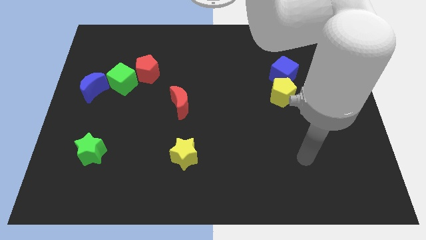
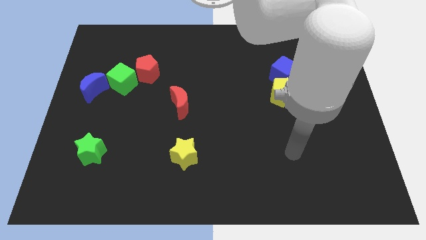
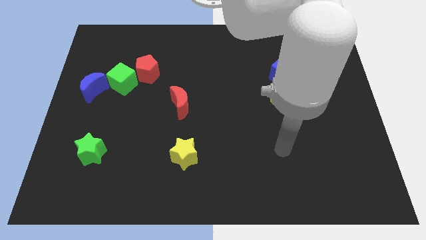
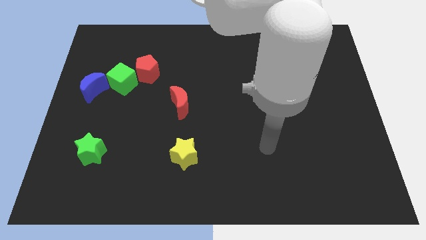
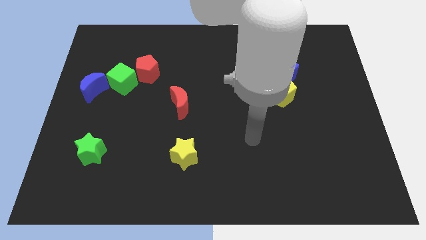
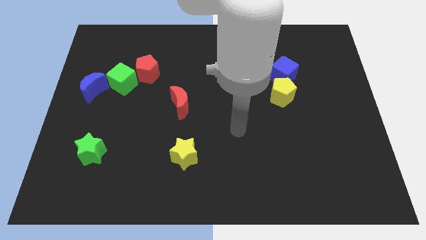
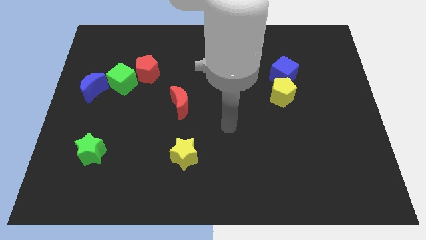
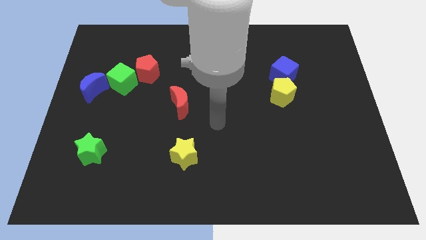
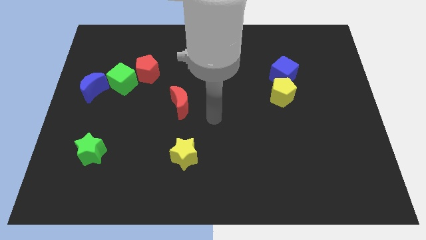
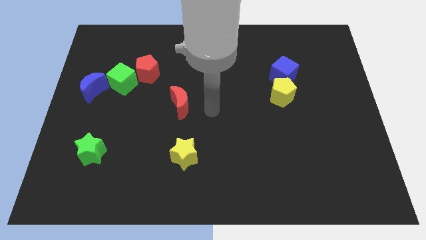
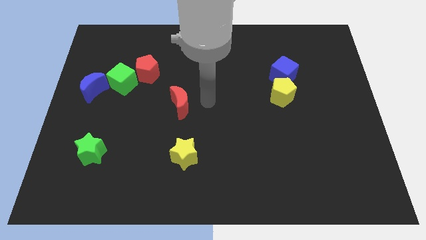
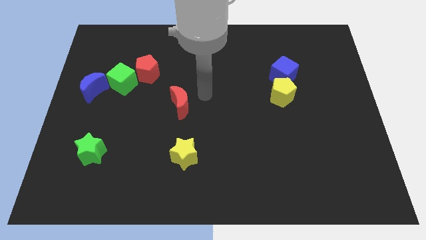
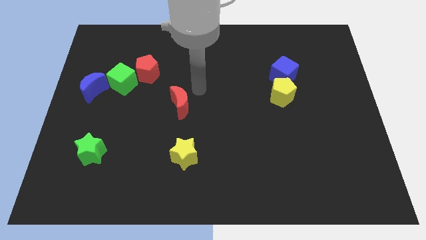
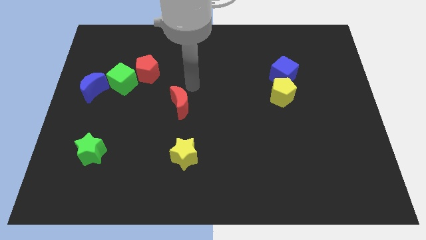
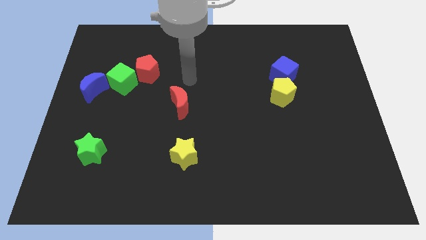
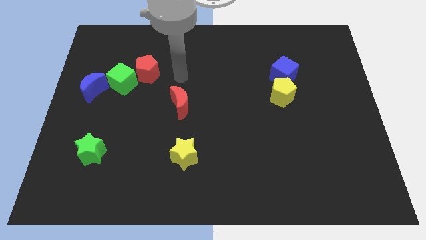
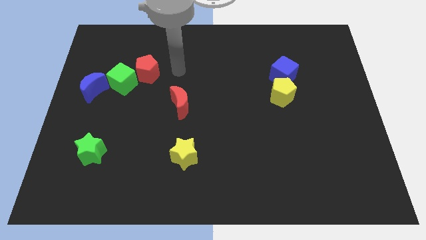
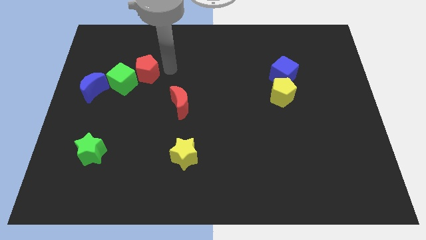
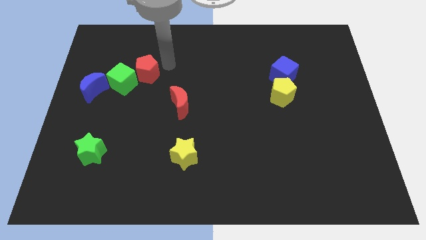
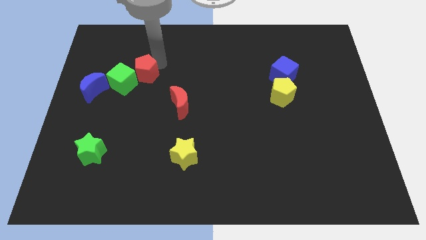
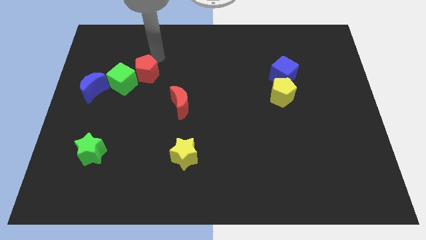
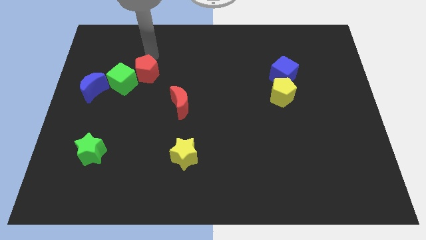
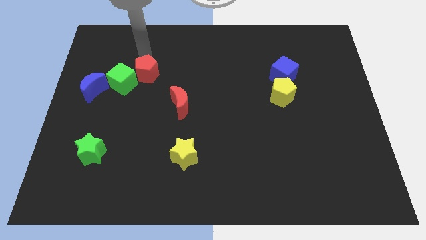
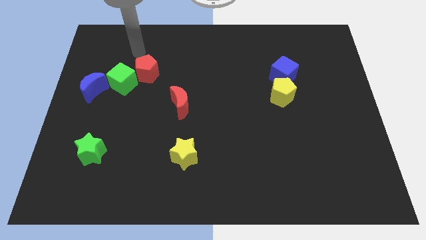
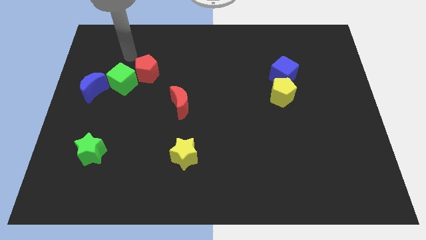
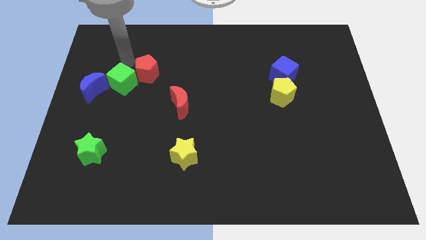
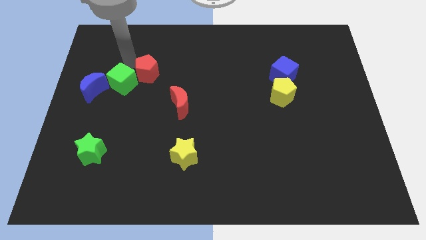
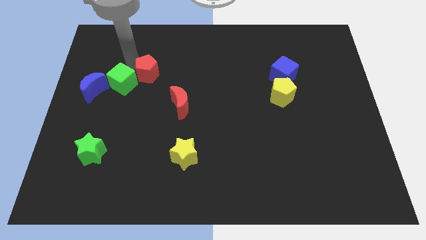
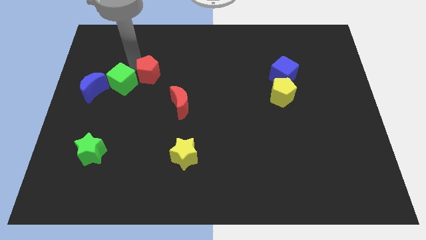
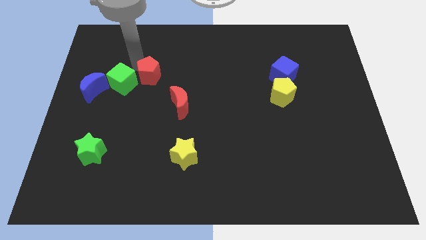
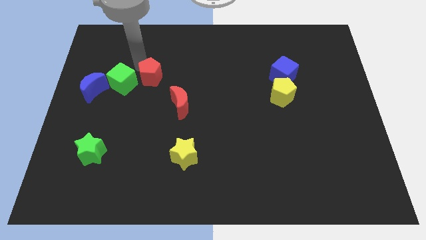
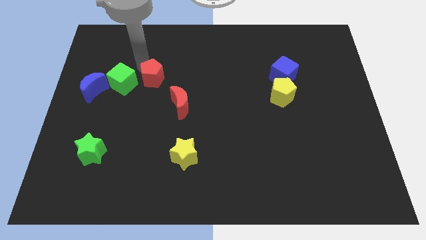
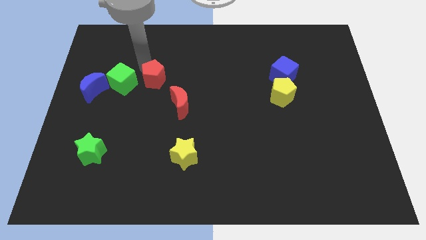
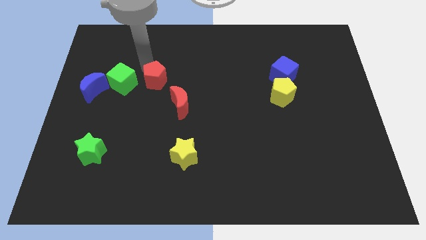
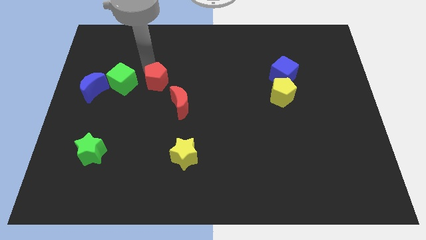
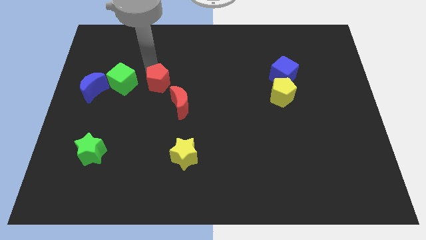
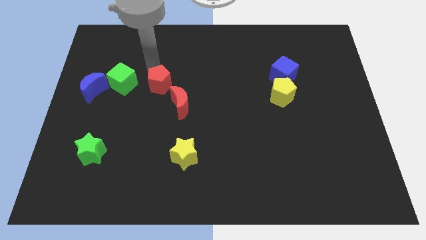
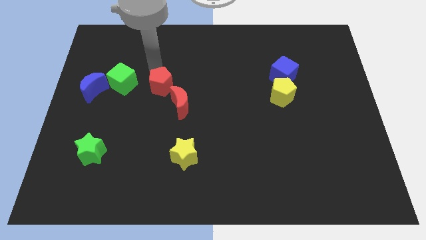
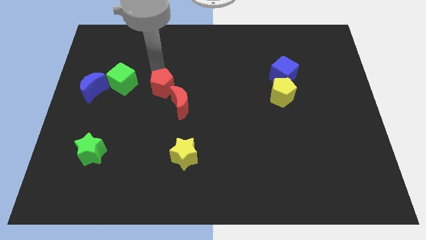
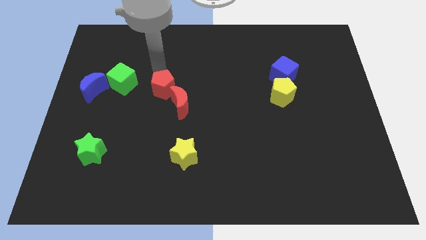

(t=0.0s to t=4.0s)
slide the red pentagon a little downwards and then right

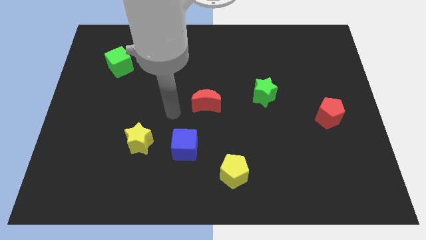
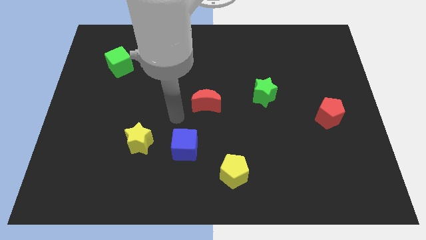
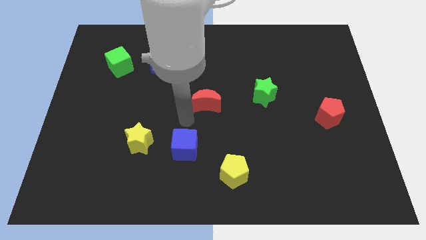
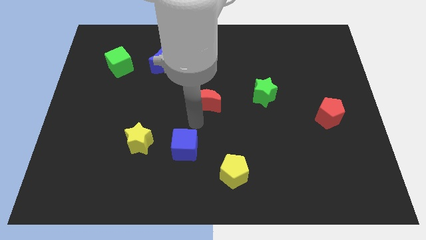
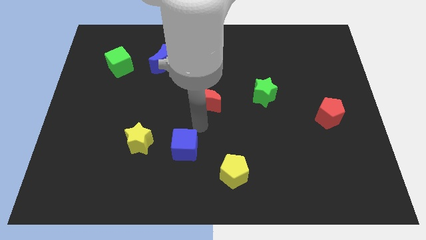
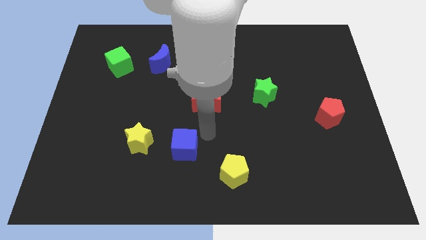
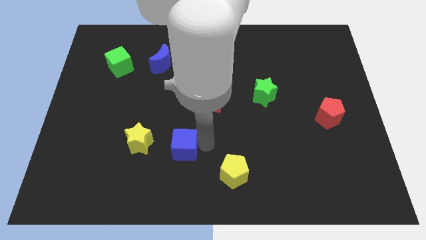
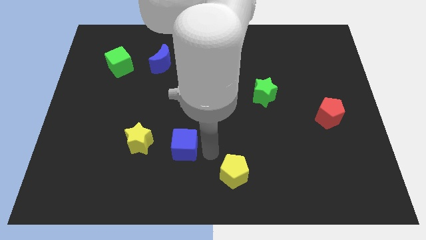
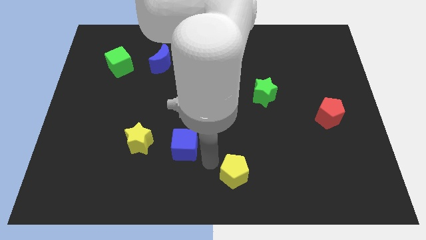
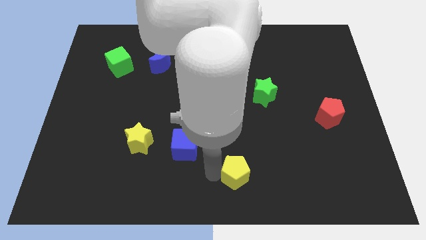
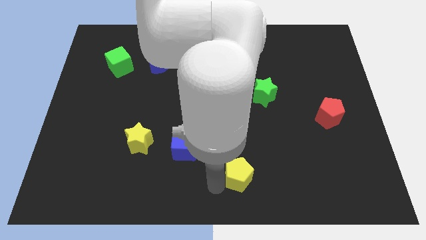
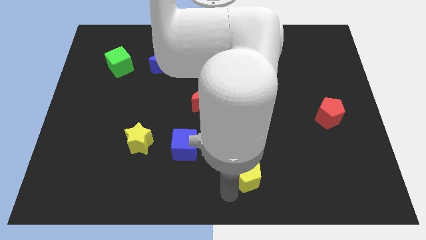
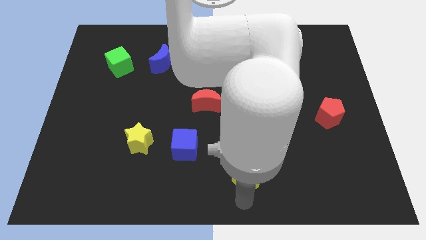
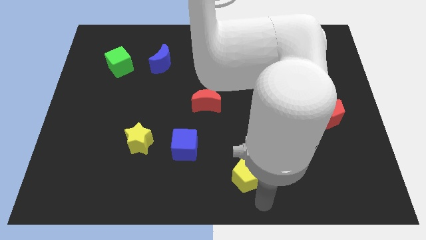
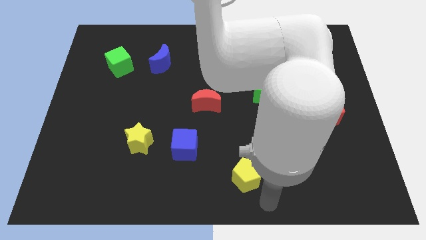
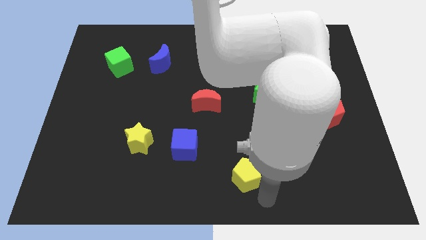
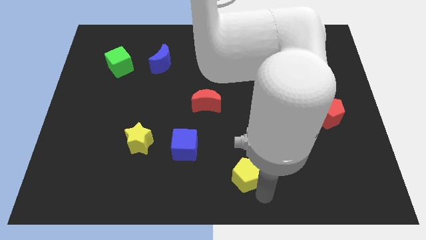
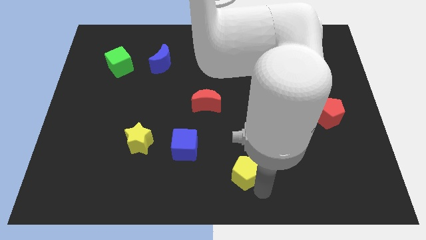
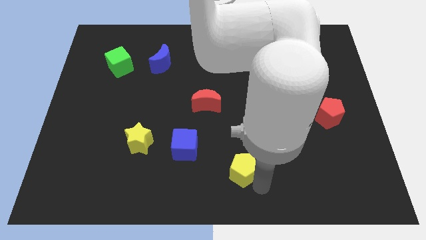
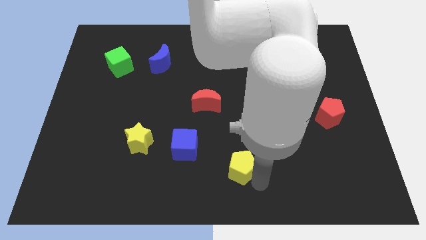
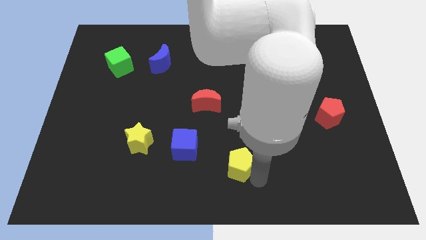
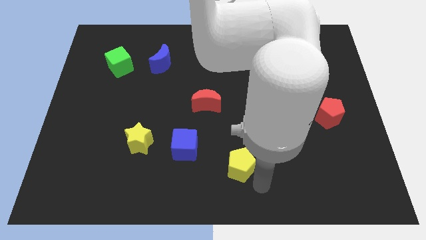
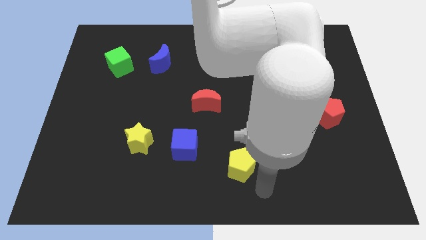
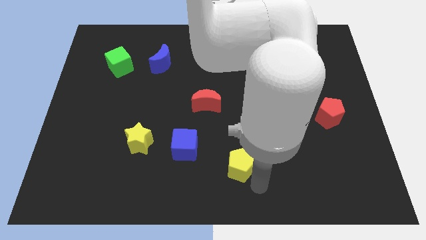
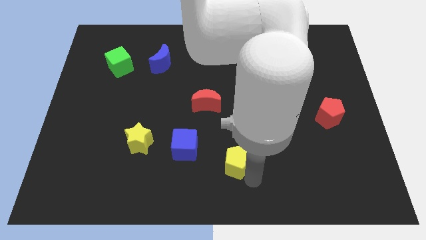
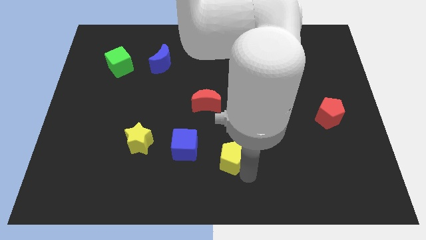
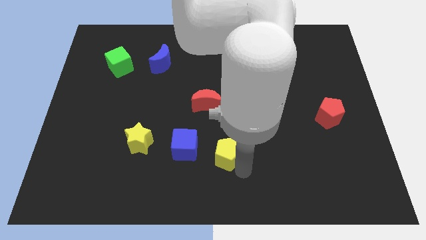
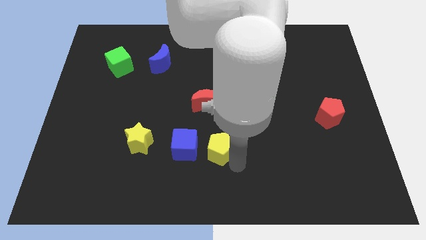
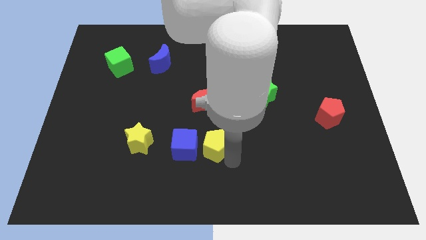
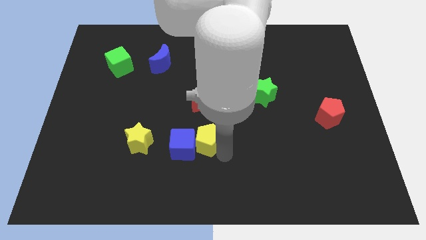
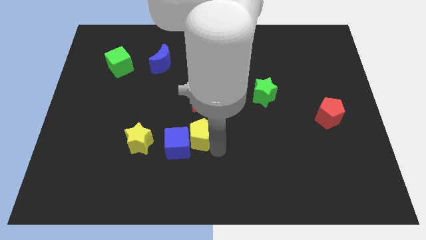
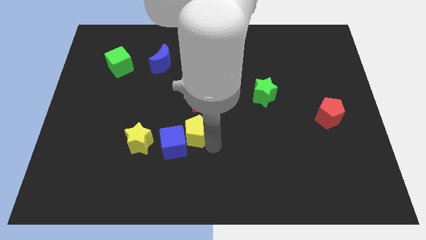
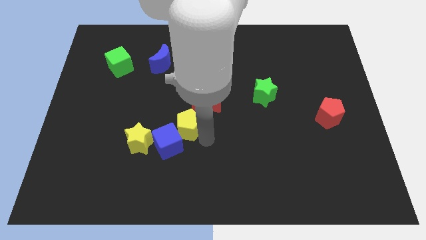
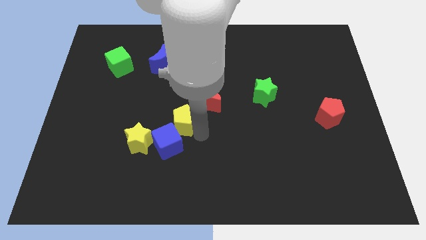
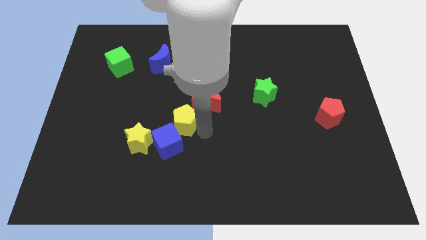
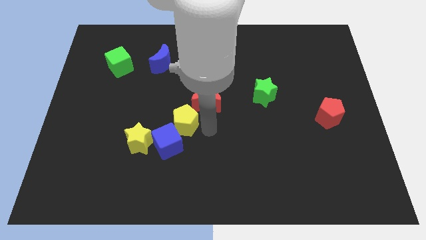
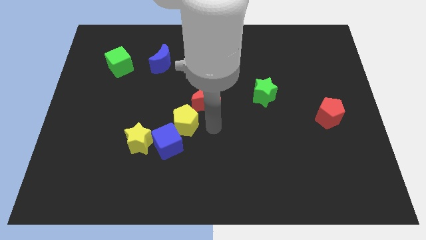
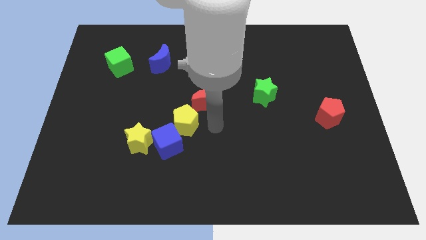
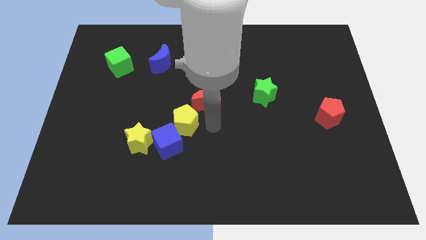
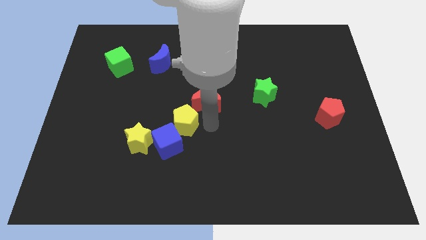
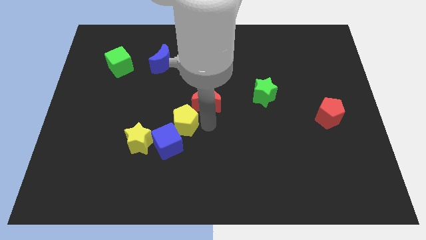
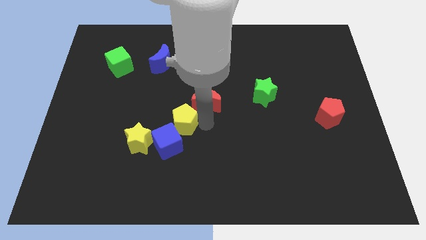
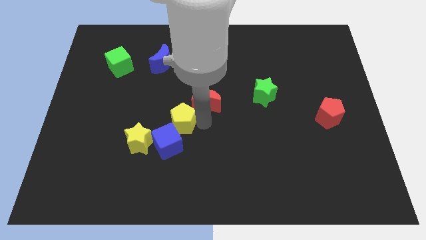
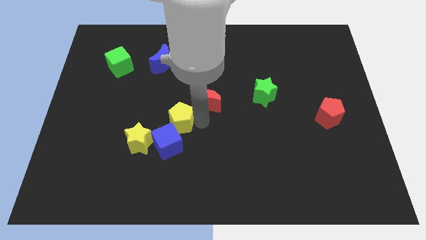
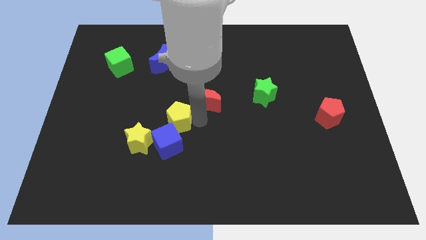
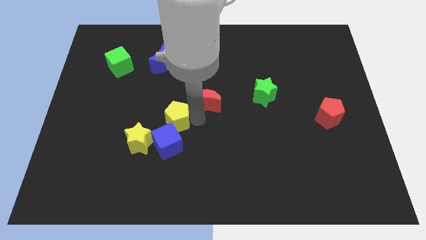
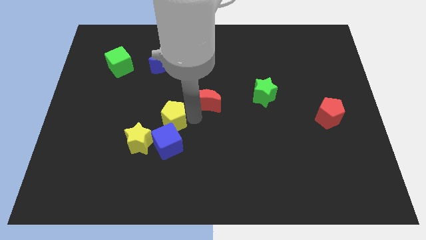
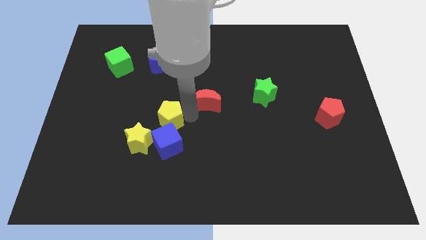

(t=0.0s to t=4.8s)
slide the yellow pentagon upwards and then to the left
